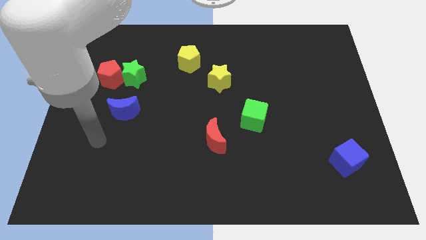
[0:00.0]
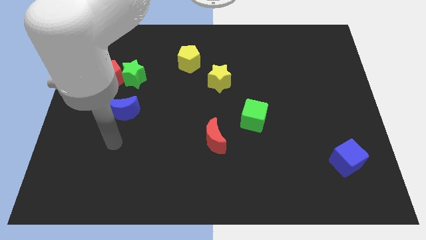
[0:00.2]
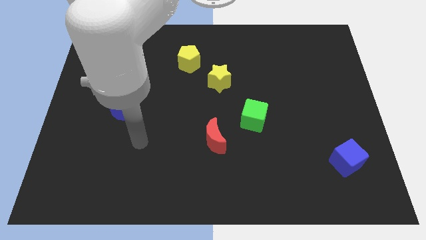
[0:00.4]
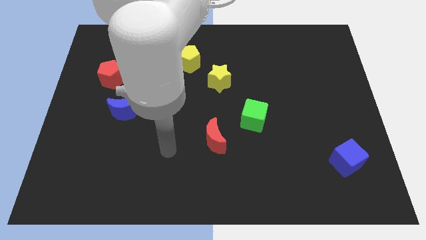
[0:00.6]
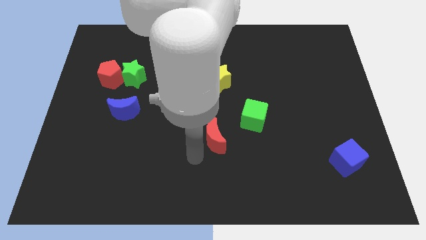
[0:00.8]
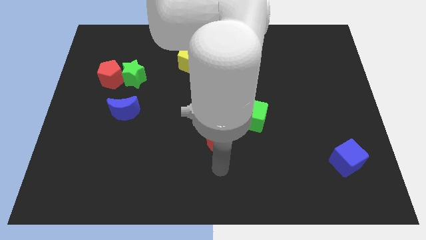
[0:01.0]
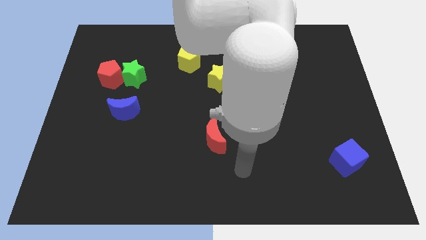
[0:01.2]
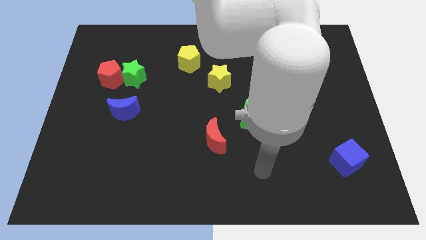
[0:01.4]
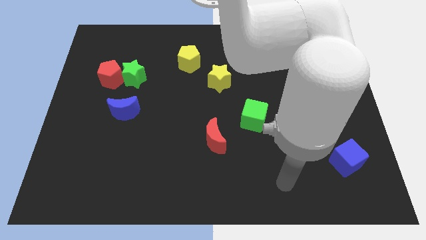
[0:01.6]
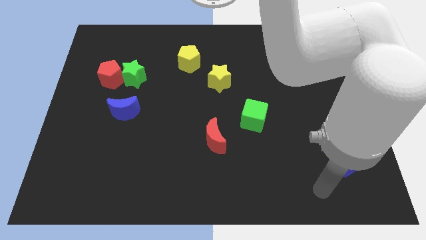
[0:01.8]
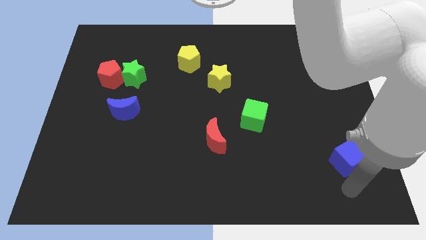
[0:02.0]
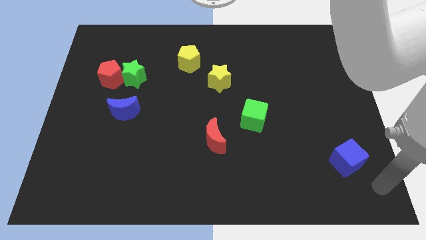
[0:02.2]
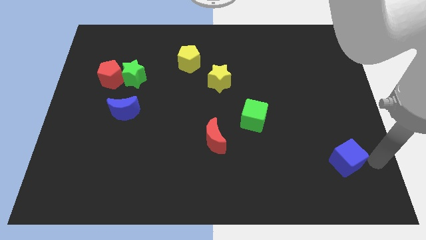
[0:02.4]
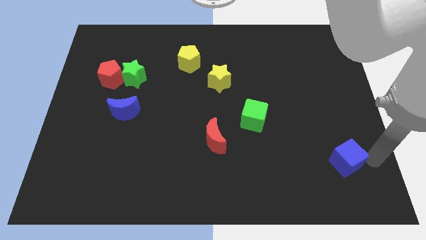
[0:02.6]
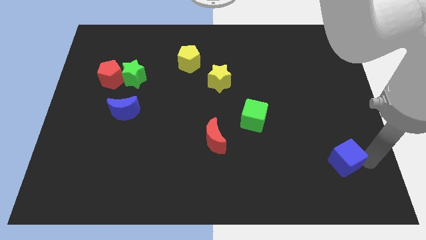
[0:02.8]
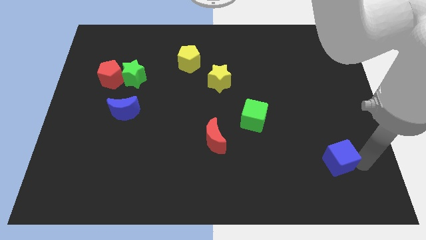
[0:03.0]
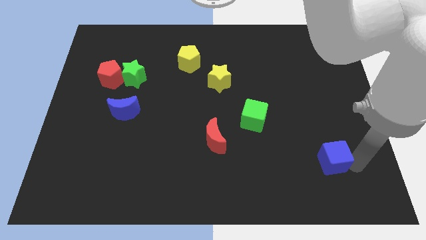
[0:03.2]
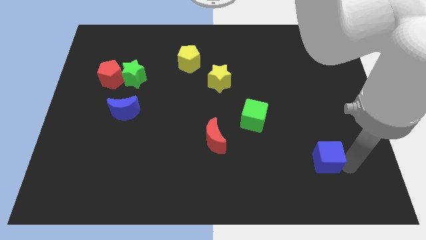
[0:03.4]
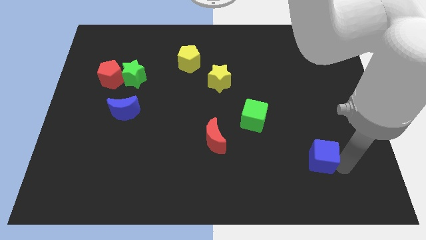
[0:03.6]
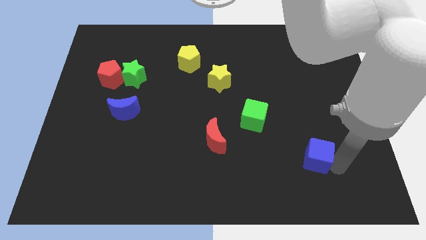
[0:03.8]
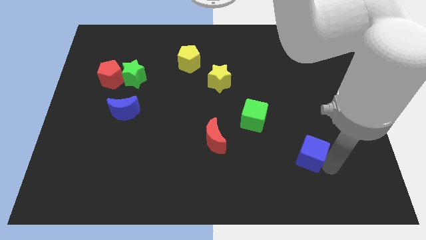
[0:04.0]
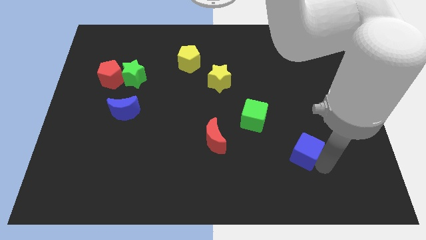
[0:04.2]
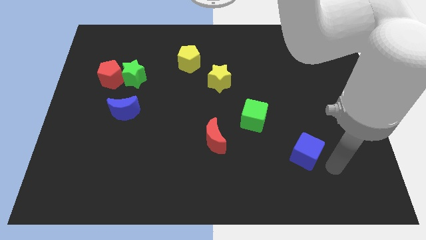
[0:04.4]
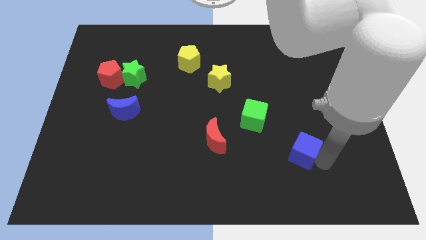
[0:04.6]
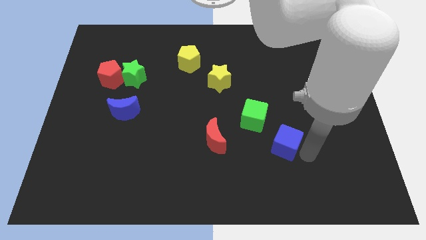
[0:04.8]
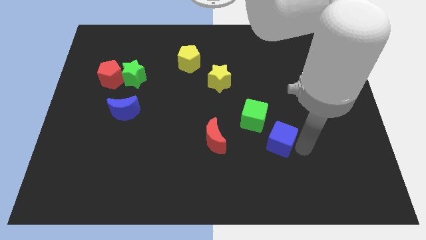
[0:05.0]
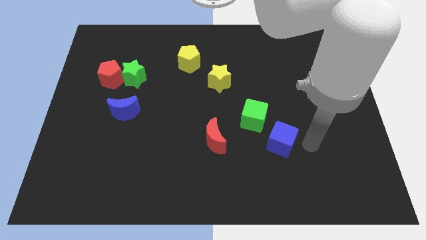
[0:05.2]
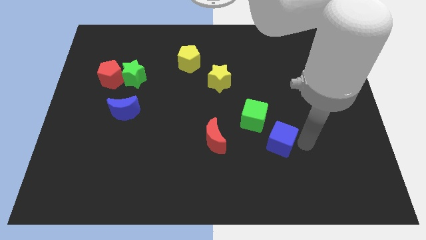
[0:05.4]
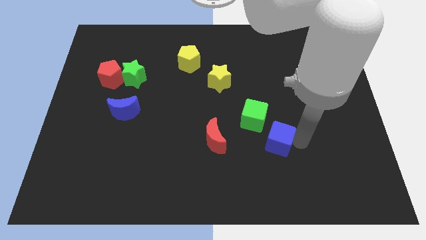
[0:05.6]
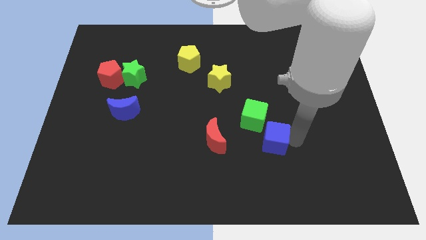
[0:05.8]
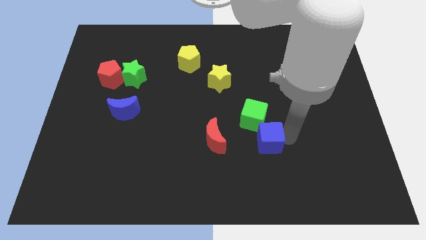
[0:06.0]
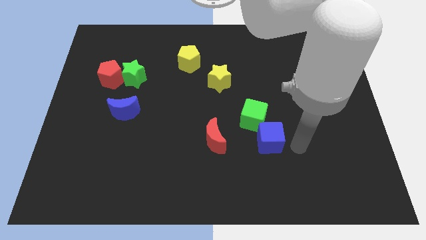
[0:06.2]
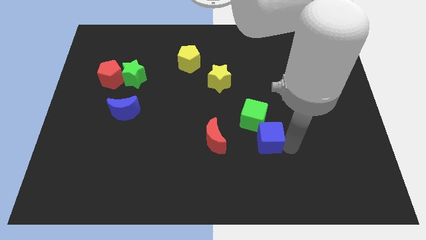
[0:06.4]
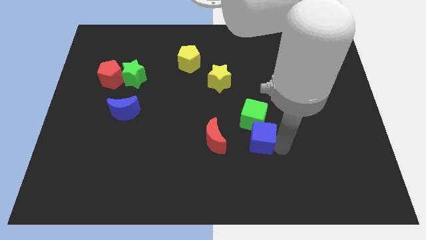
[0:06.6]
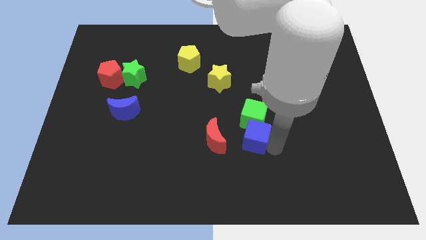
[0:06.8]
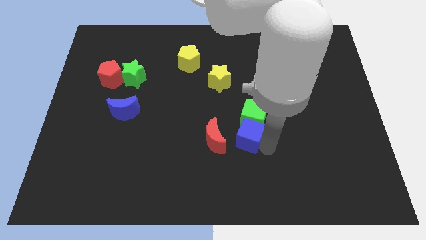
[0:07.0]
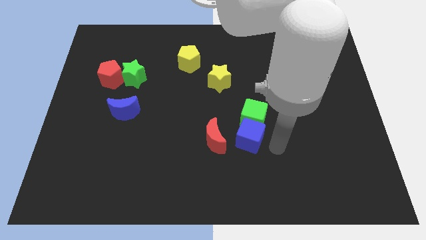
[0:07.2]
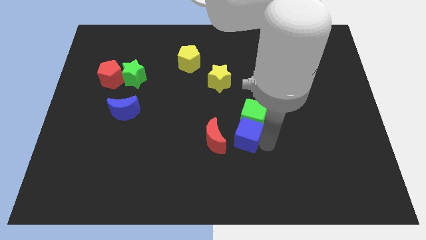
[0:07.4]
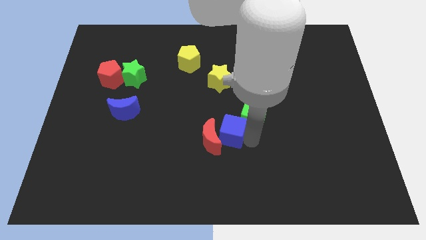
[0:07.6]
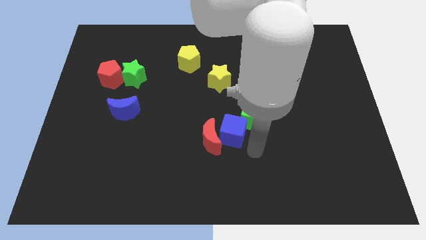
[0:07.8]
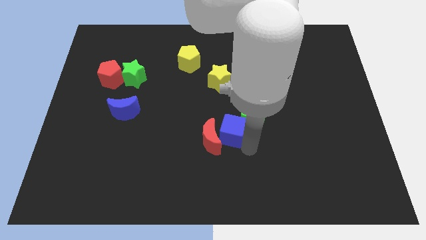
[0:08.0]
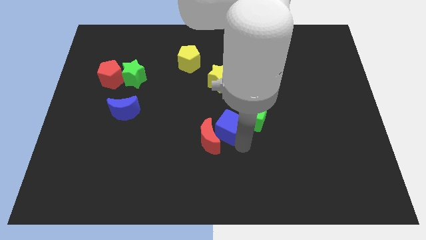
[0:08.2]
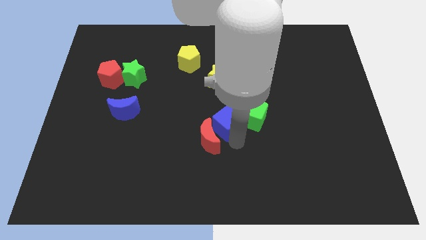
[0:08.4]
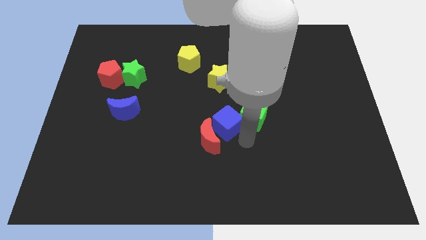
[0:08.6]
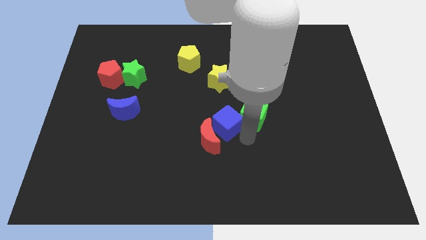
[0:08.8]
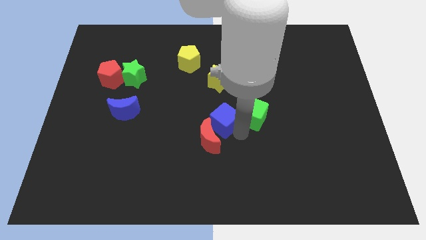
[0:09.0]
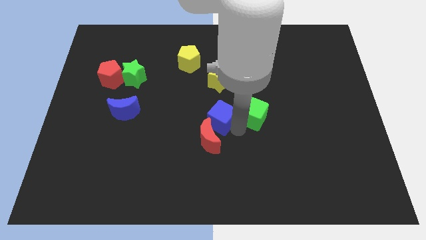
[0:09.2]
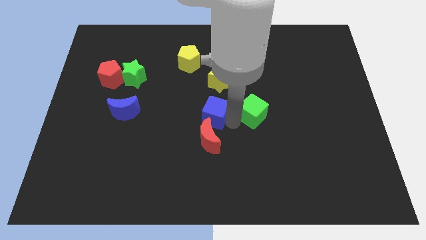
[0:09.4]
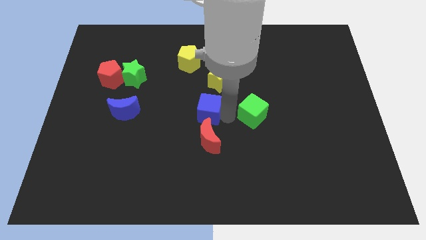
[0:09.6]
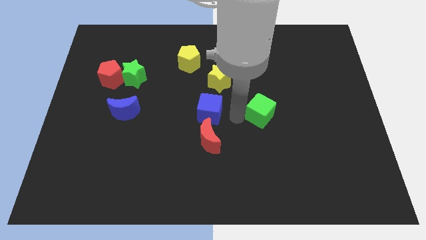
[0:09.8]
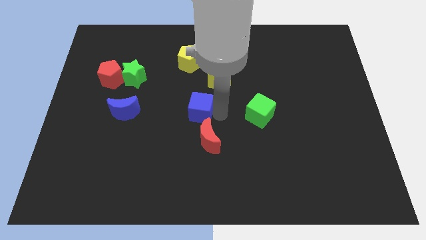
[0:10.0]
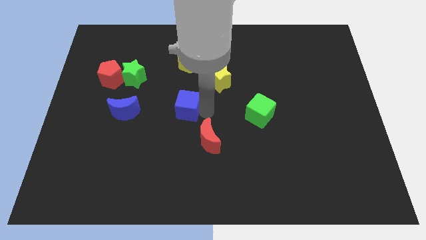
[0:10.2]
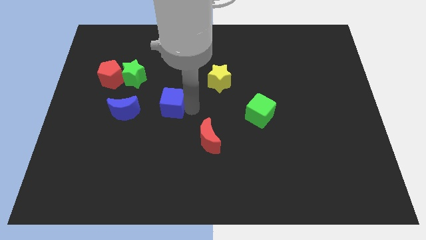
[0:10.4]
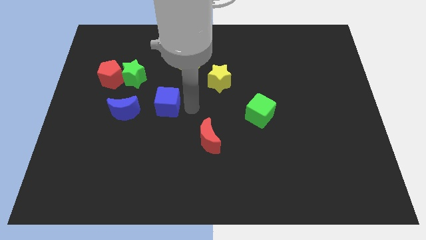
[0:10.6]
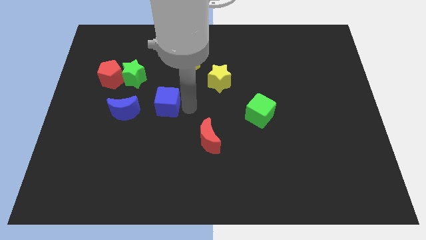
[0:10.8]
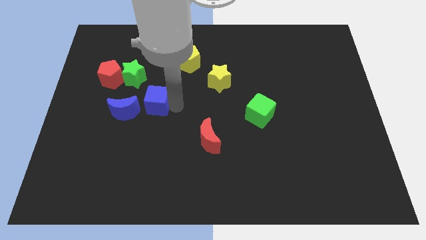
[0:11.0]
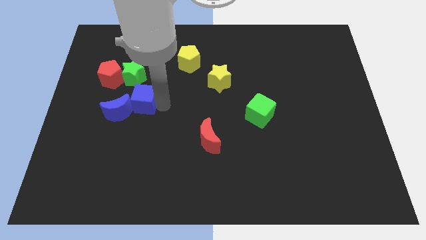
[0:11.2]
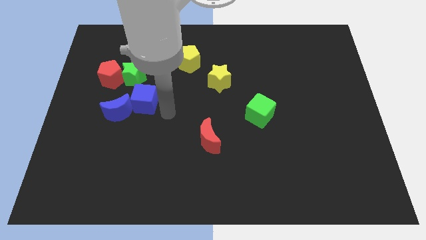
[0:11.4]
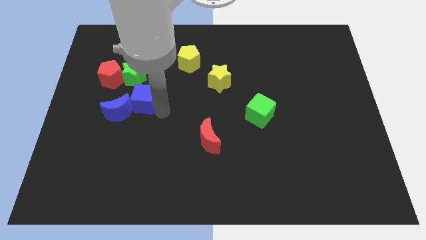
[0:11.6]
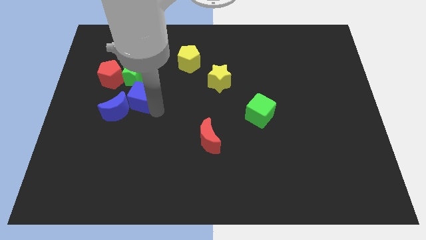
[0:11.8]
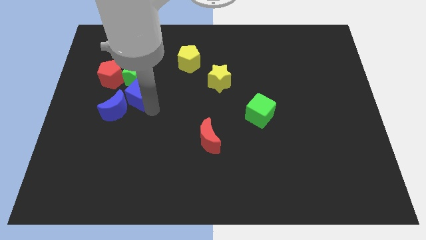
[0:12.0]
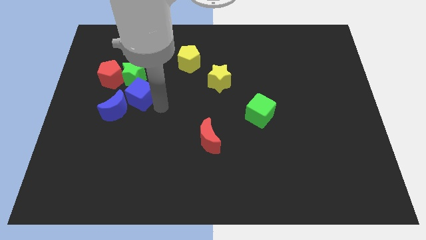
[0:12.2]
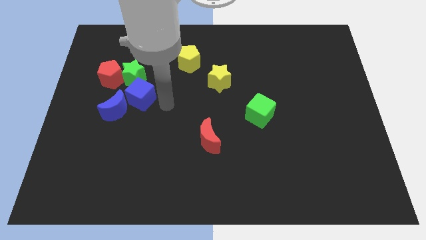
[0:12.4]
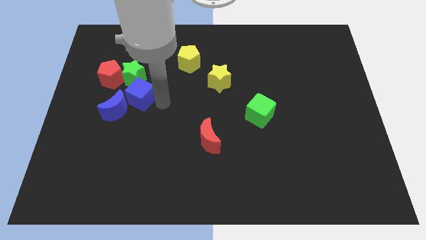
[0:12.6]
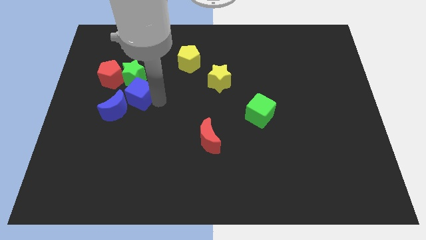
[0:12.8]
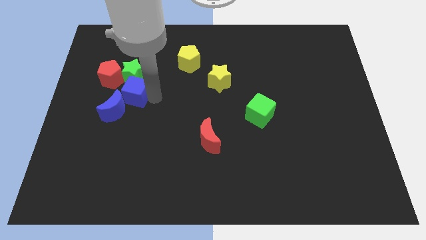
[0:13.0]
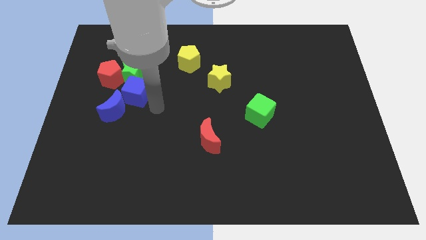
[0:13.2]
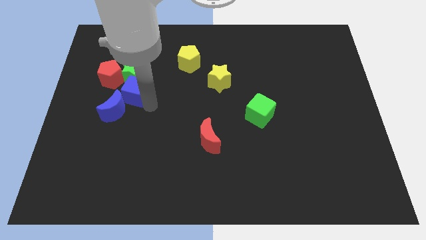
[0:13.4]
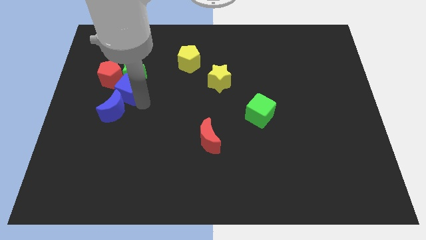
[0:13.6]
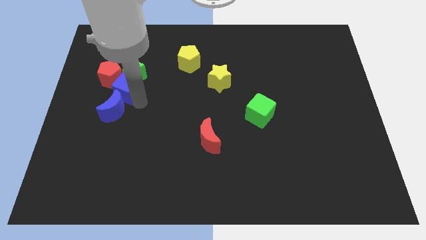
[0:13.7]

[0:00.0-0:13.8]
put the blue cube to the red pentagon

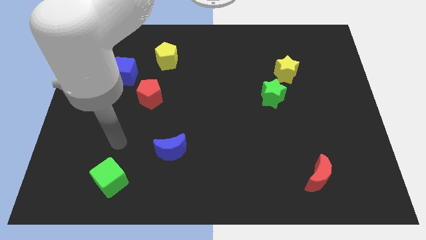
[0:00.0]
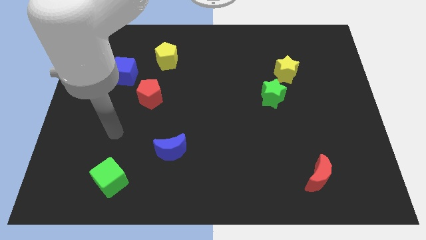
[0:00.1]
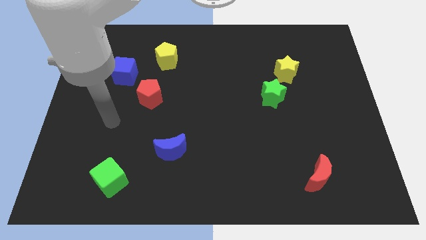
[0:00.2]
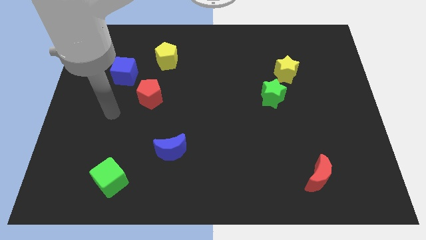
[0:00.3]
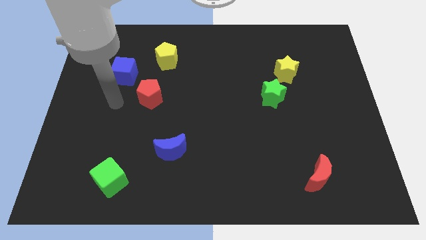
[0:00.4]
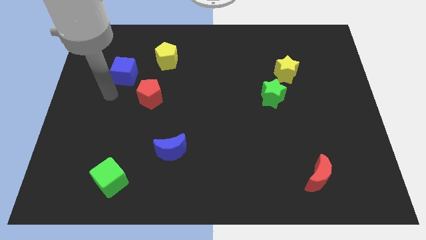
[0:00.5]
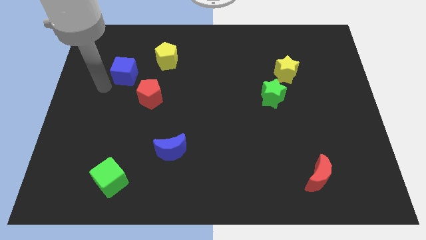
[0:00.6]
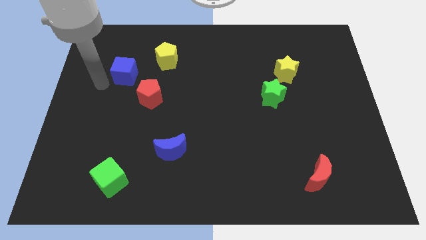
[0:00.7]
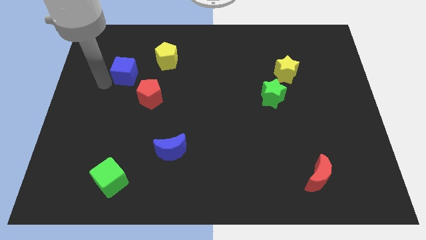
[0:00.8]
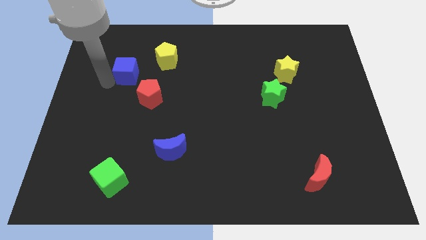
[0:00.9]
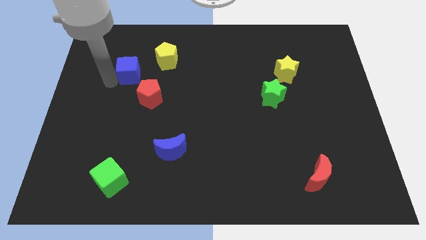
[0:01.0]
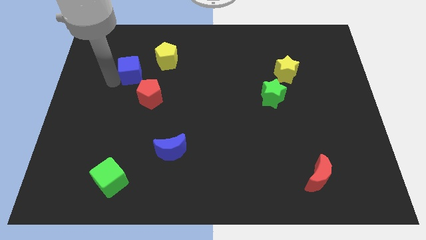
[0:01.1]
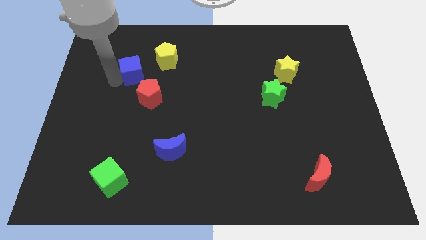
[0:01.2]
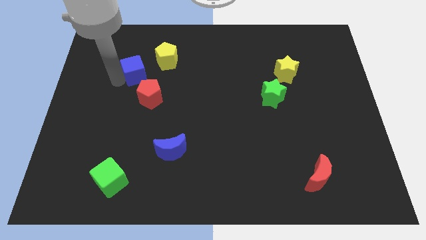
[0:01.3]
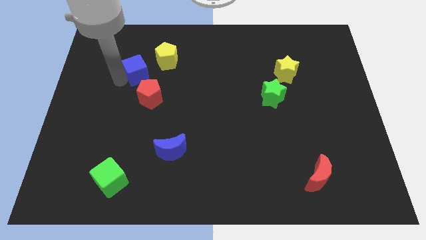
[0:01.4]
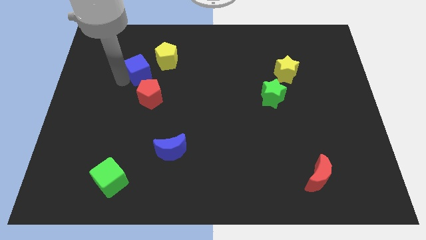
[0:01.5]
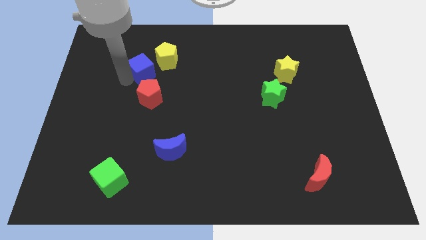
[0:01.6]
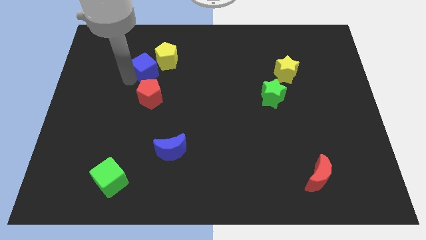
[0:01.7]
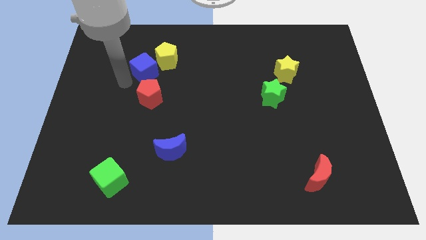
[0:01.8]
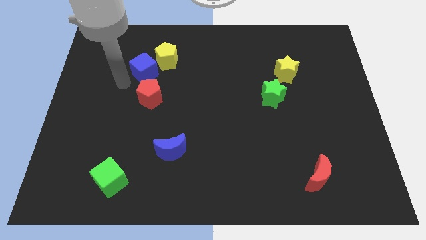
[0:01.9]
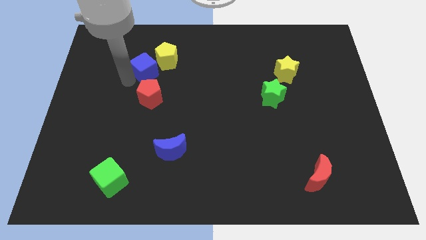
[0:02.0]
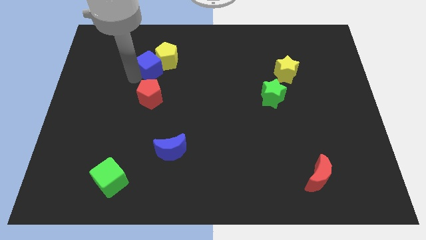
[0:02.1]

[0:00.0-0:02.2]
push the blue cube towards the yellow pentagon
